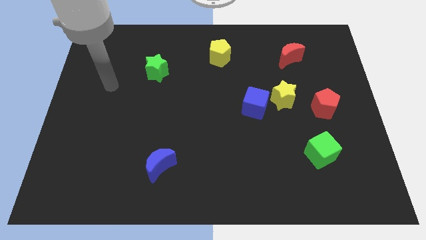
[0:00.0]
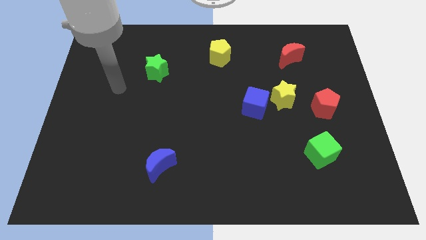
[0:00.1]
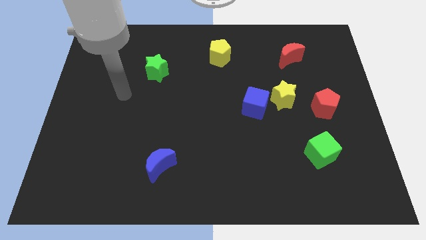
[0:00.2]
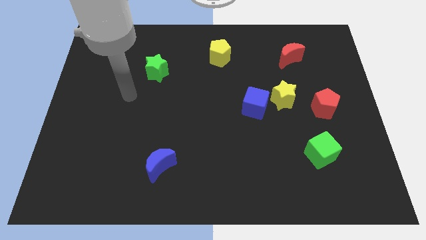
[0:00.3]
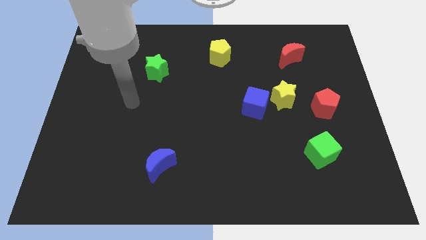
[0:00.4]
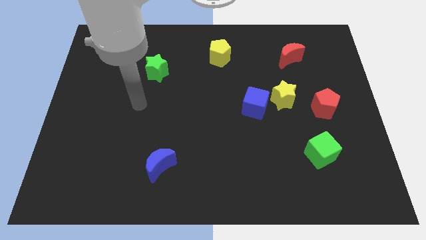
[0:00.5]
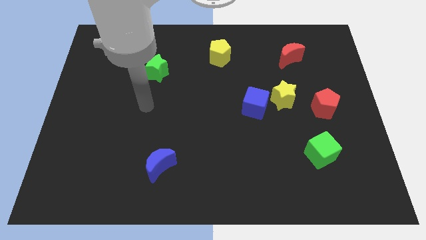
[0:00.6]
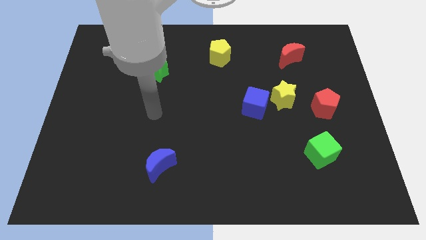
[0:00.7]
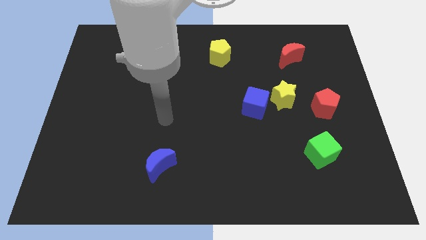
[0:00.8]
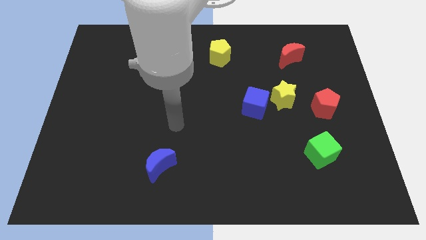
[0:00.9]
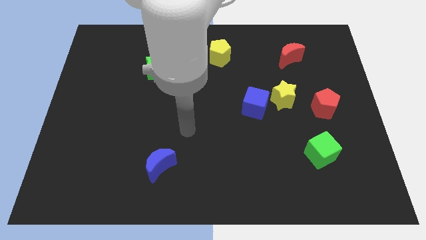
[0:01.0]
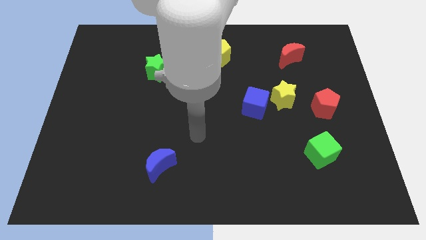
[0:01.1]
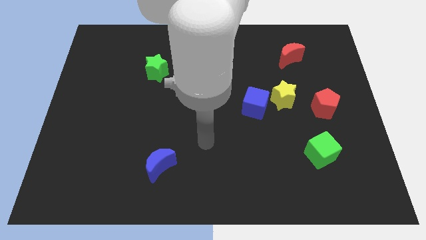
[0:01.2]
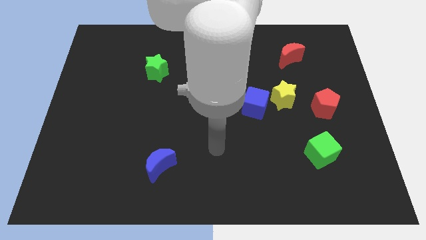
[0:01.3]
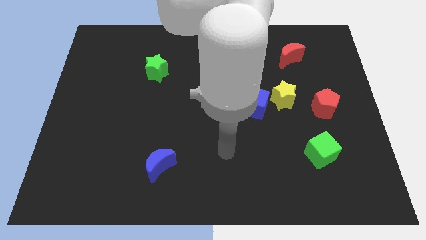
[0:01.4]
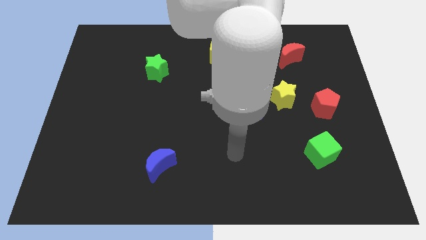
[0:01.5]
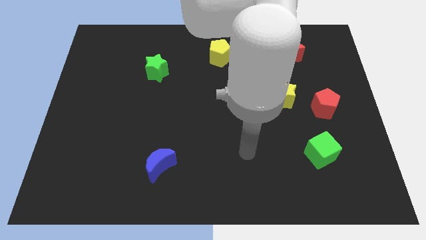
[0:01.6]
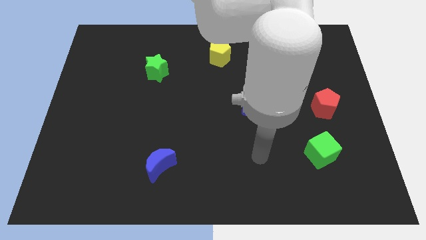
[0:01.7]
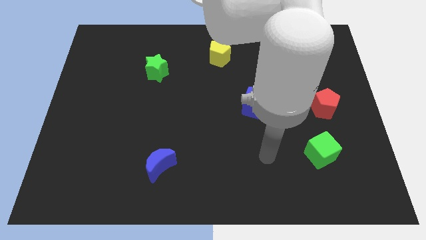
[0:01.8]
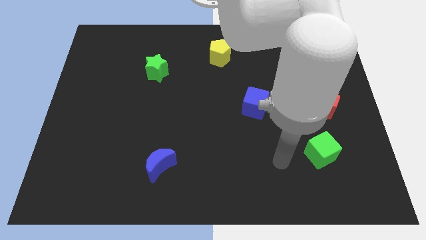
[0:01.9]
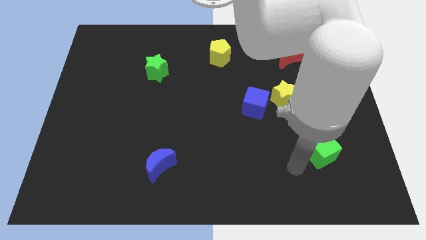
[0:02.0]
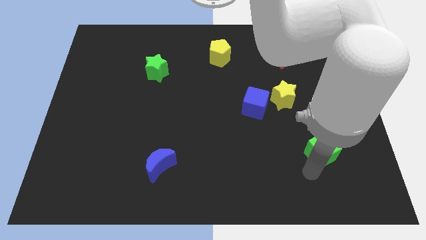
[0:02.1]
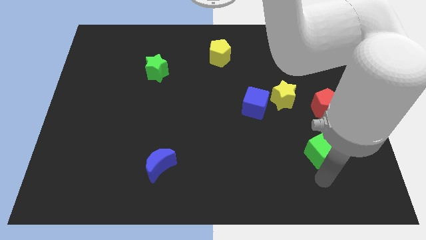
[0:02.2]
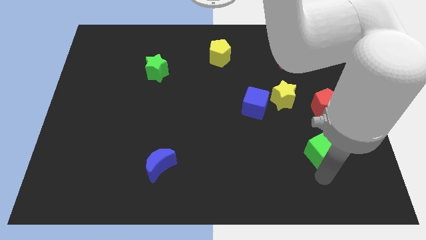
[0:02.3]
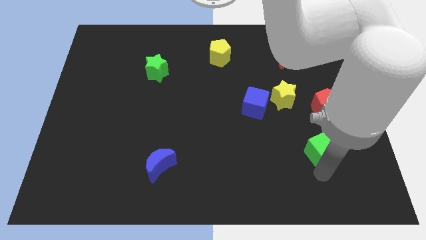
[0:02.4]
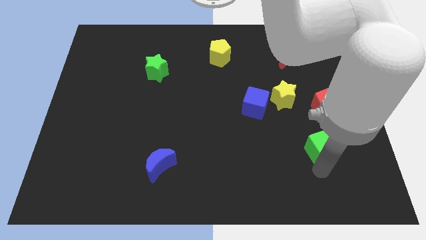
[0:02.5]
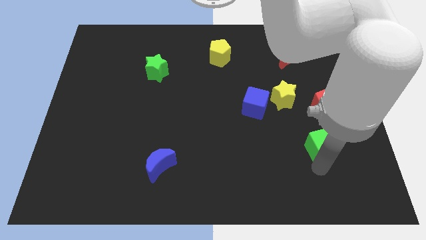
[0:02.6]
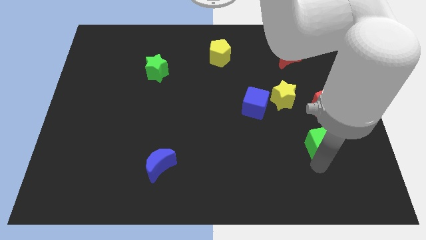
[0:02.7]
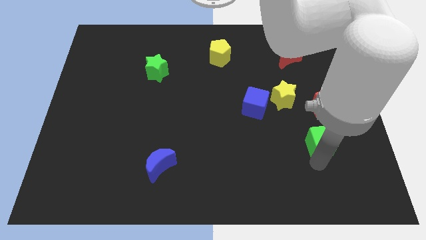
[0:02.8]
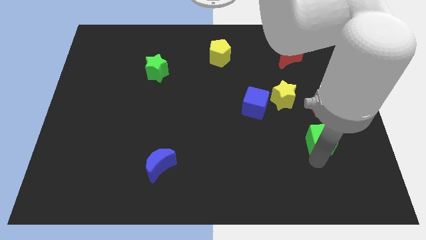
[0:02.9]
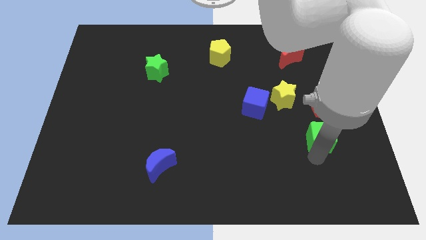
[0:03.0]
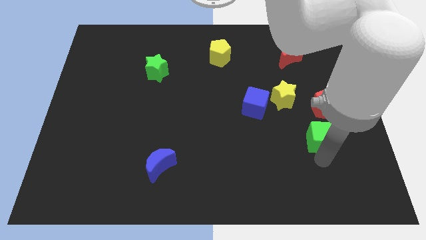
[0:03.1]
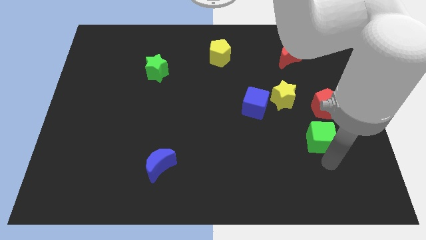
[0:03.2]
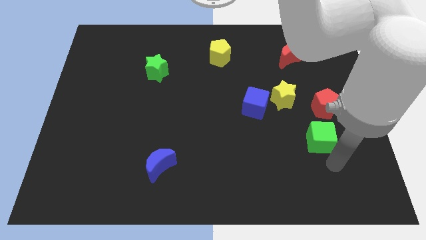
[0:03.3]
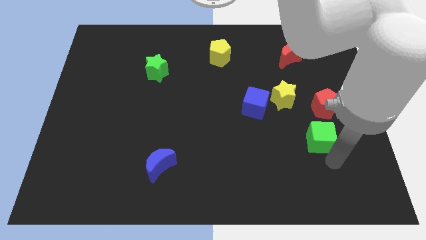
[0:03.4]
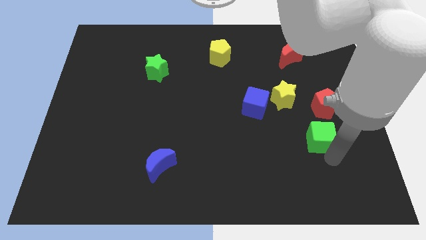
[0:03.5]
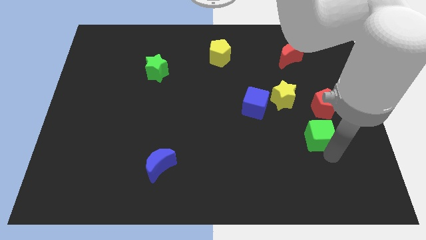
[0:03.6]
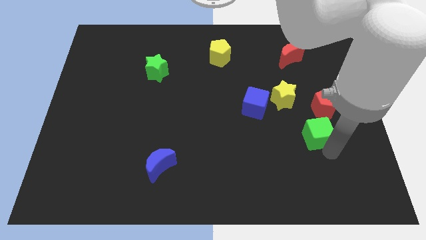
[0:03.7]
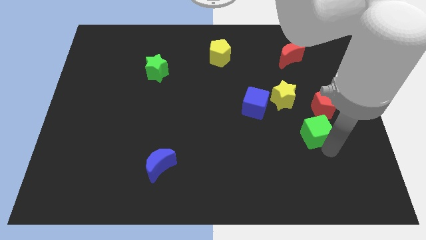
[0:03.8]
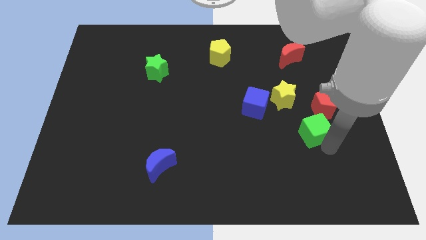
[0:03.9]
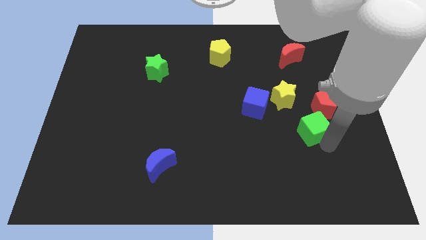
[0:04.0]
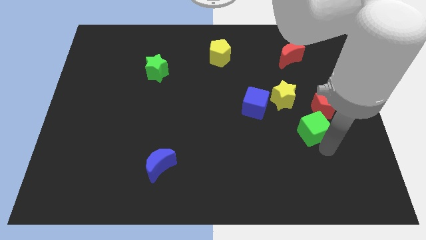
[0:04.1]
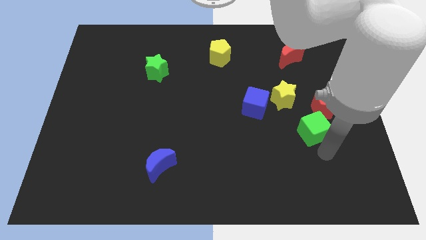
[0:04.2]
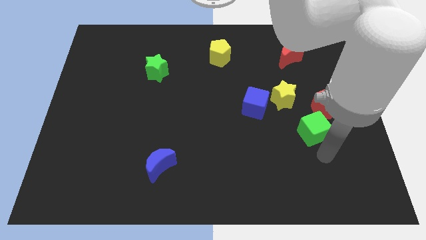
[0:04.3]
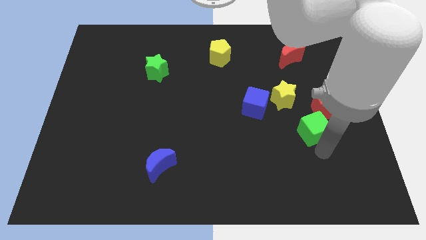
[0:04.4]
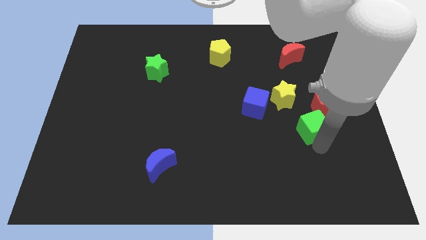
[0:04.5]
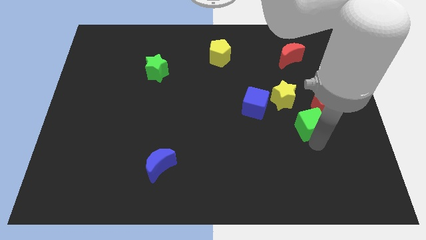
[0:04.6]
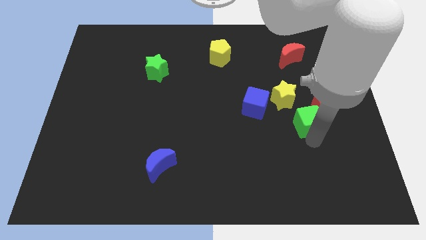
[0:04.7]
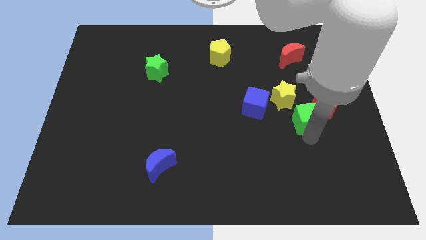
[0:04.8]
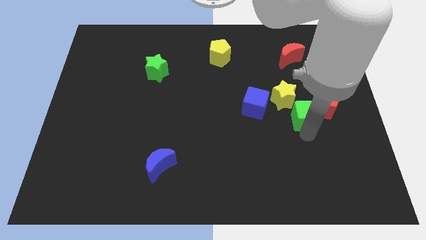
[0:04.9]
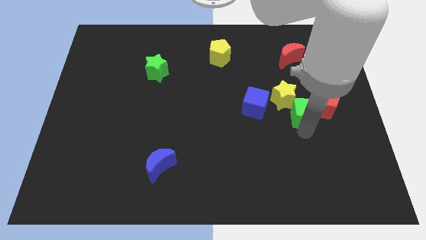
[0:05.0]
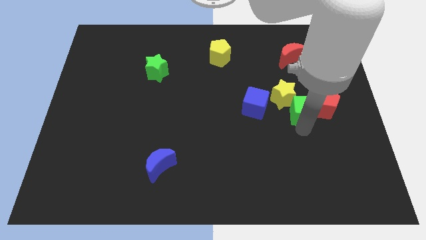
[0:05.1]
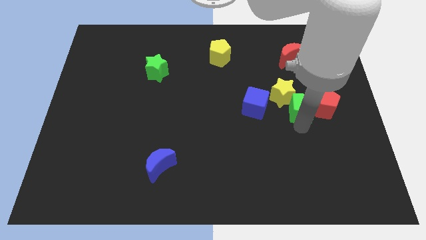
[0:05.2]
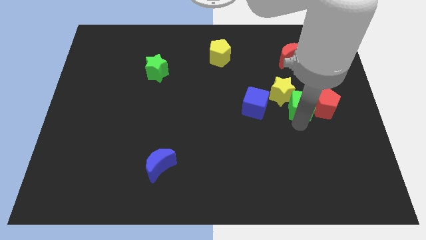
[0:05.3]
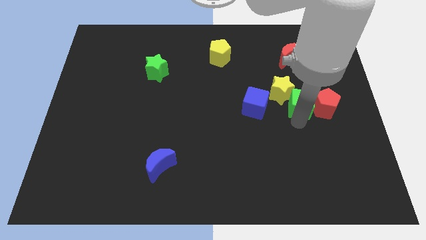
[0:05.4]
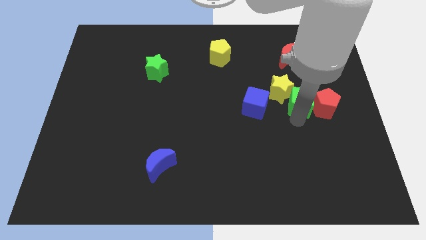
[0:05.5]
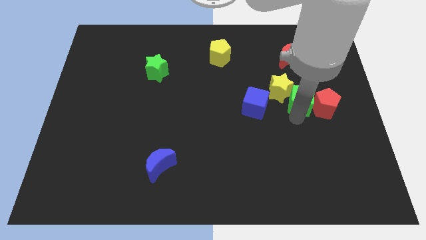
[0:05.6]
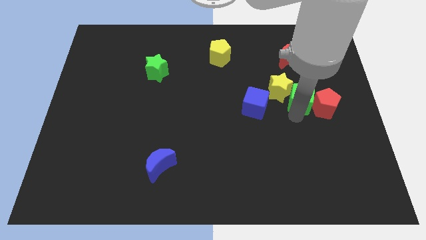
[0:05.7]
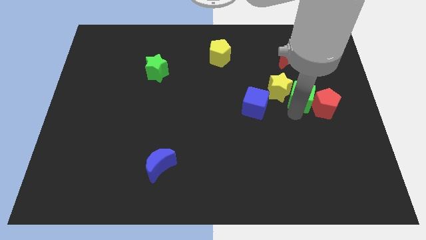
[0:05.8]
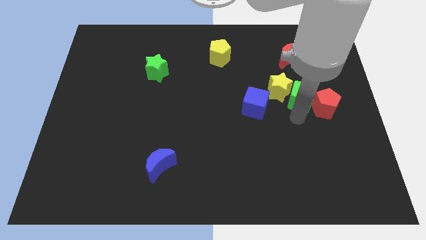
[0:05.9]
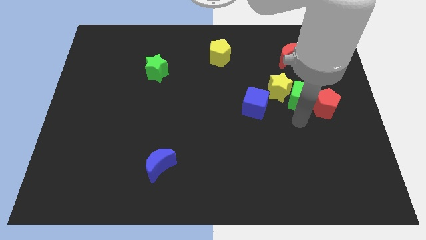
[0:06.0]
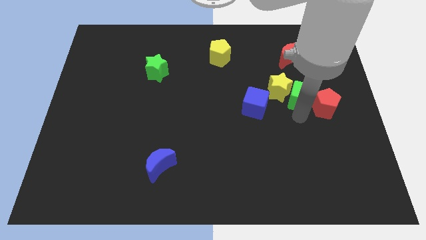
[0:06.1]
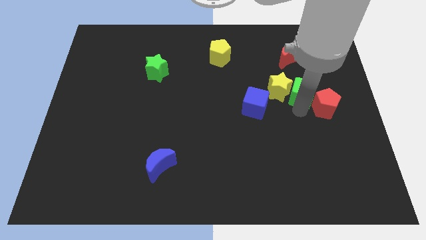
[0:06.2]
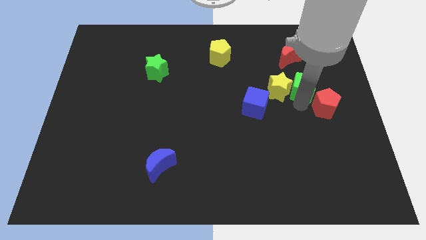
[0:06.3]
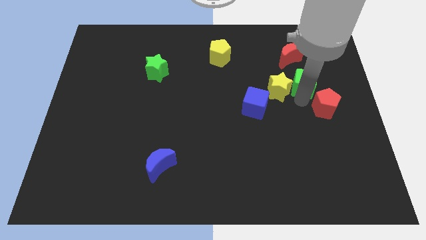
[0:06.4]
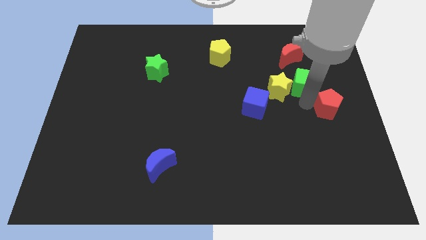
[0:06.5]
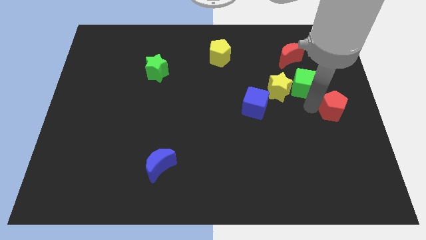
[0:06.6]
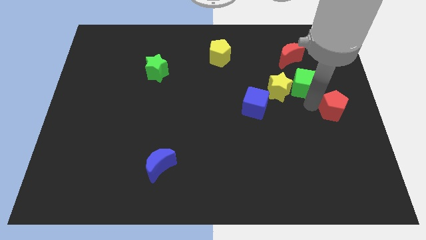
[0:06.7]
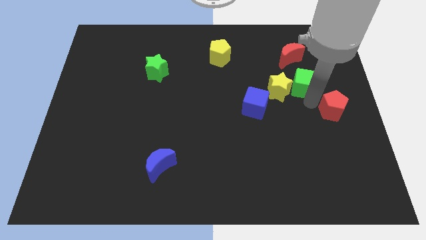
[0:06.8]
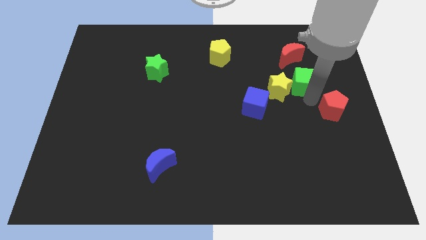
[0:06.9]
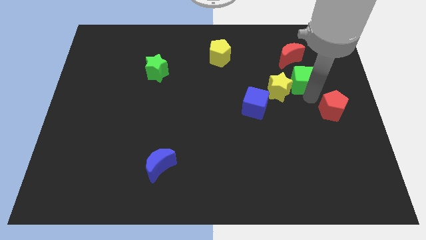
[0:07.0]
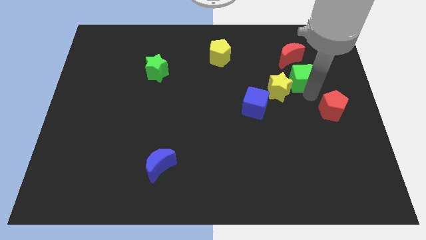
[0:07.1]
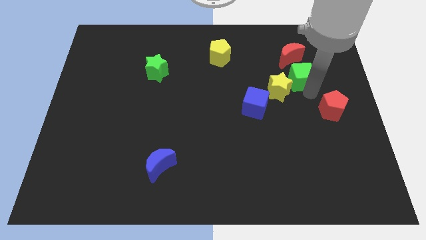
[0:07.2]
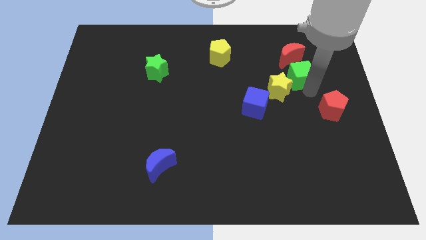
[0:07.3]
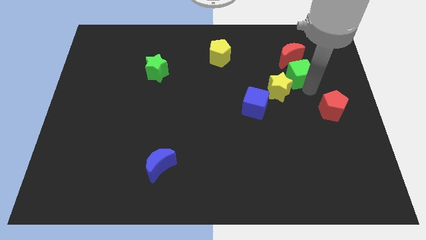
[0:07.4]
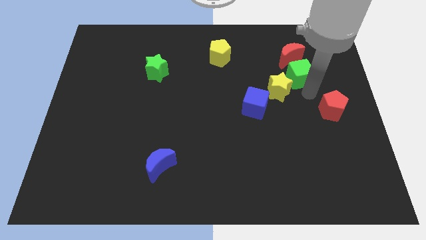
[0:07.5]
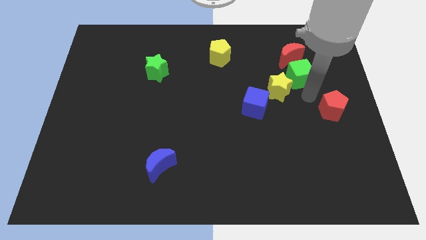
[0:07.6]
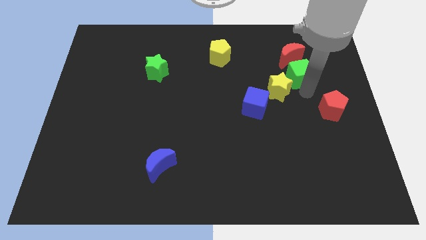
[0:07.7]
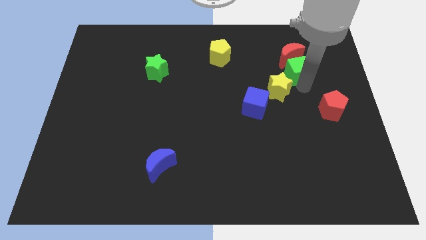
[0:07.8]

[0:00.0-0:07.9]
slide the green cube to the red moon
